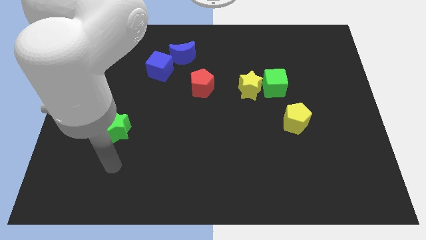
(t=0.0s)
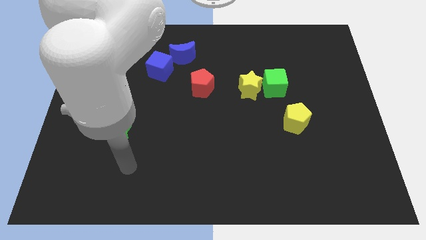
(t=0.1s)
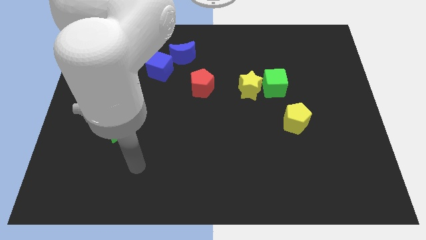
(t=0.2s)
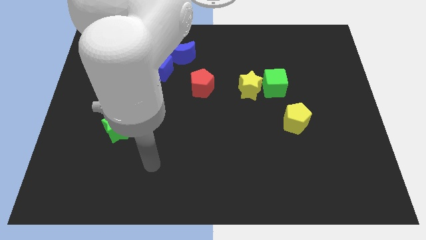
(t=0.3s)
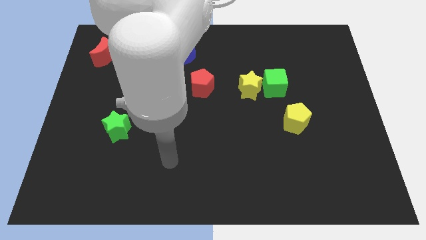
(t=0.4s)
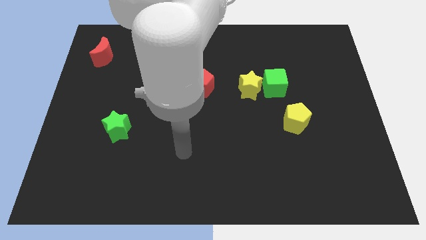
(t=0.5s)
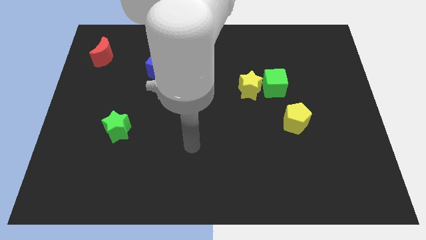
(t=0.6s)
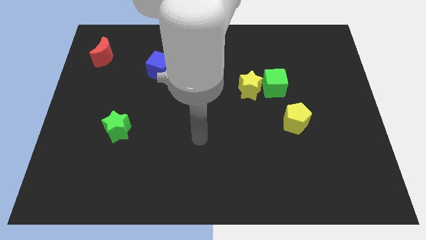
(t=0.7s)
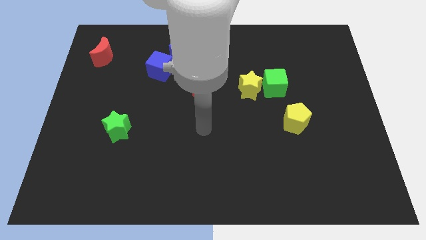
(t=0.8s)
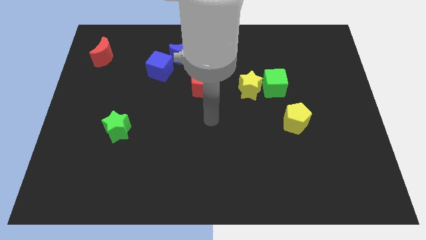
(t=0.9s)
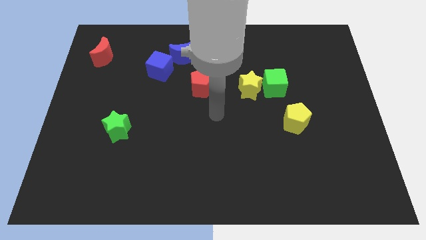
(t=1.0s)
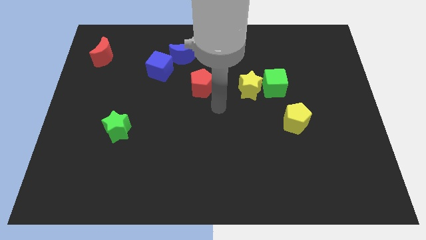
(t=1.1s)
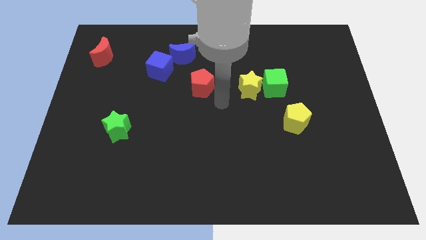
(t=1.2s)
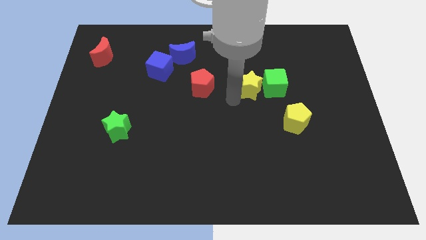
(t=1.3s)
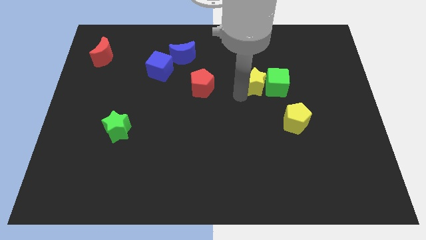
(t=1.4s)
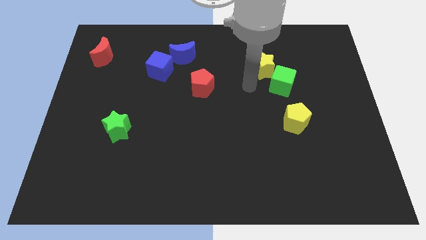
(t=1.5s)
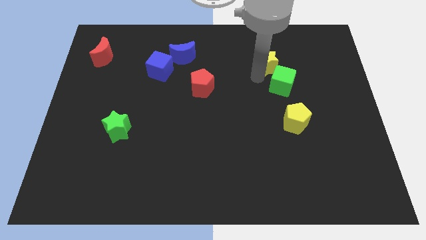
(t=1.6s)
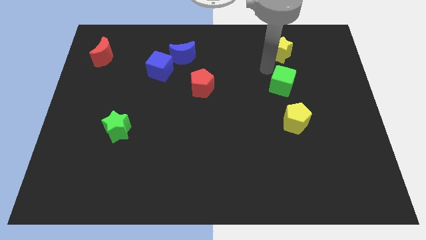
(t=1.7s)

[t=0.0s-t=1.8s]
move the green cube away from the yellow star

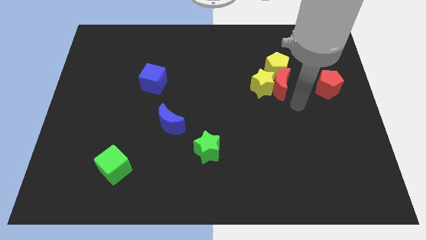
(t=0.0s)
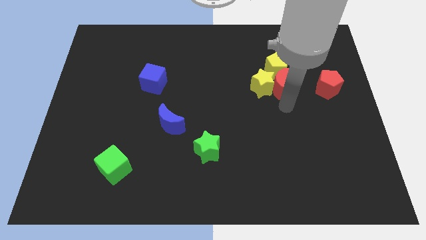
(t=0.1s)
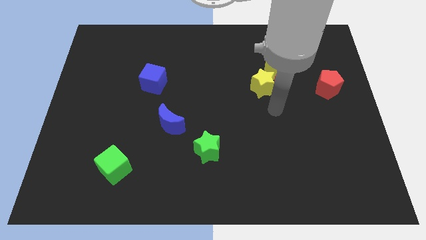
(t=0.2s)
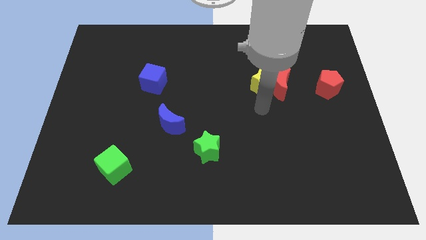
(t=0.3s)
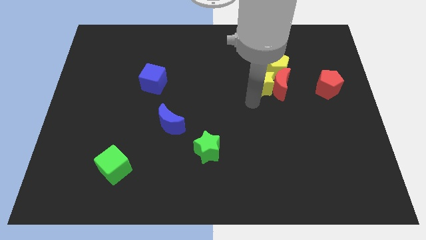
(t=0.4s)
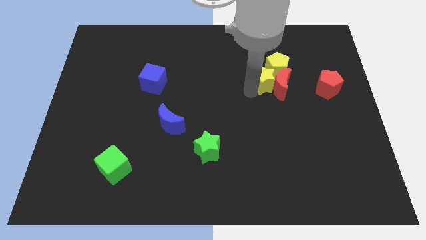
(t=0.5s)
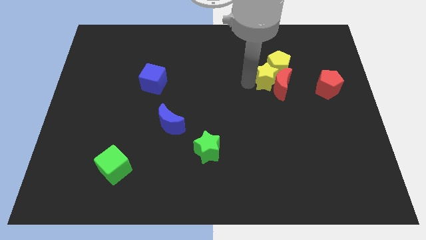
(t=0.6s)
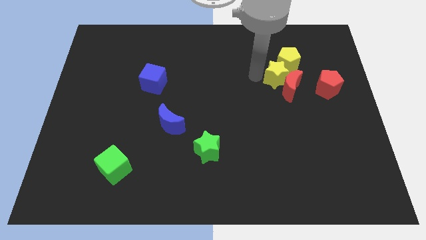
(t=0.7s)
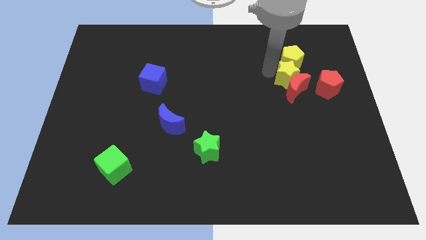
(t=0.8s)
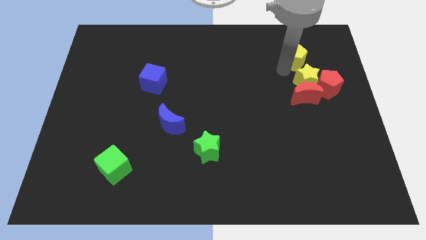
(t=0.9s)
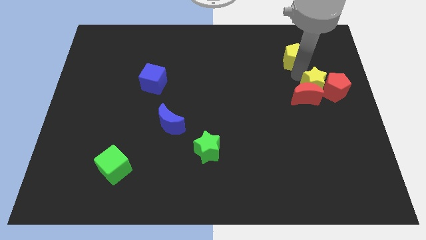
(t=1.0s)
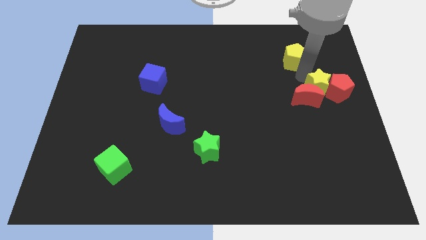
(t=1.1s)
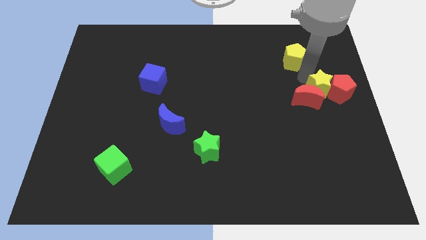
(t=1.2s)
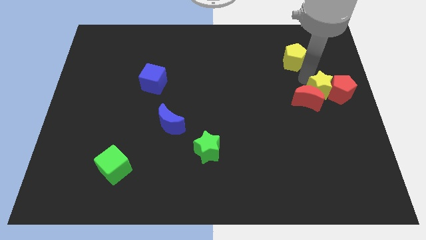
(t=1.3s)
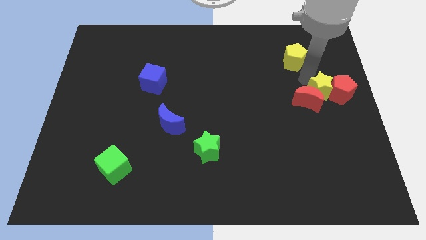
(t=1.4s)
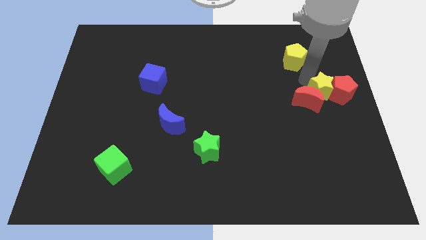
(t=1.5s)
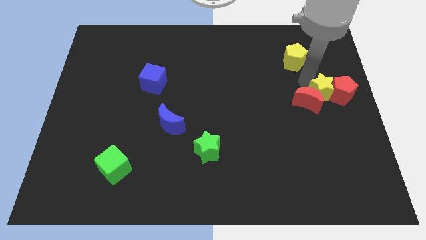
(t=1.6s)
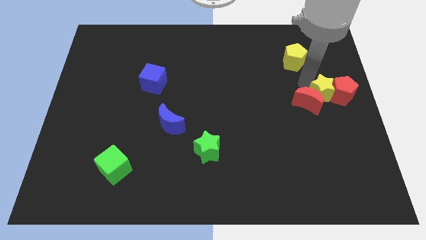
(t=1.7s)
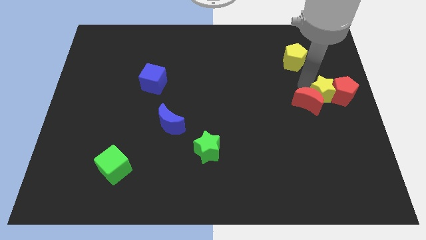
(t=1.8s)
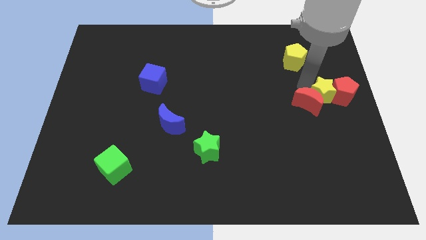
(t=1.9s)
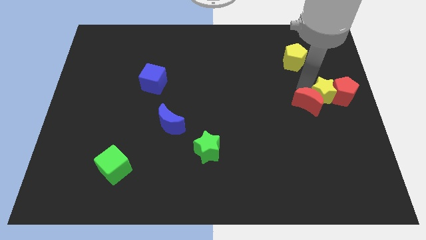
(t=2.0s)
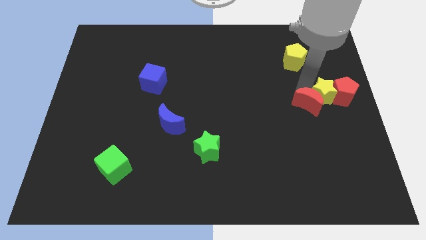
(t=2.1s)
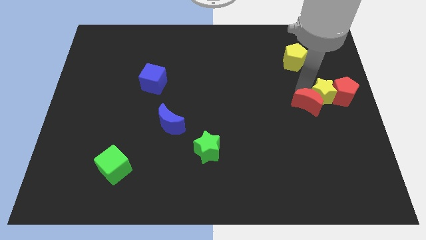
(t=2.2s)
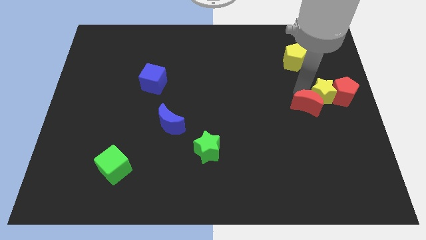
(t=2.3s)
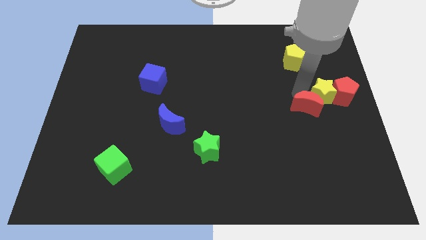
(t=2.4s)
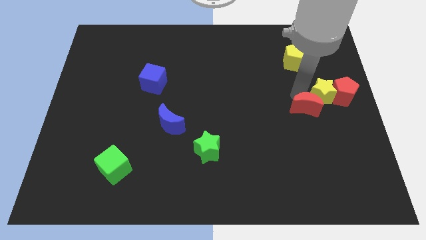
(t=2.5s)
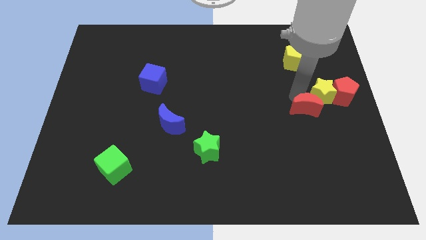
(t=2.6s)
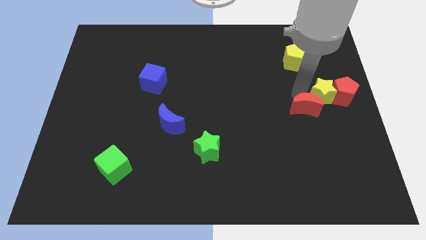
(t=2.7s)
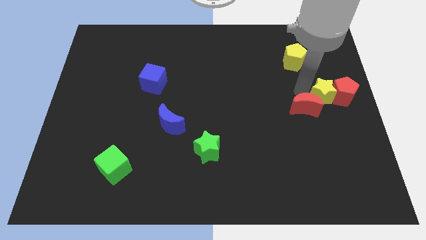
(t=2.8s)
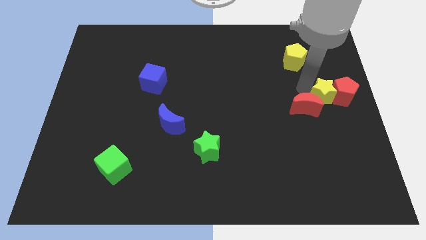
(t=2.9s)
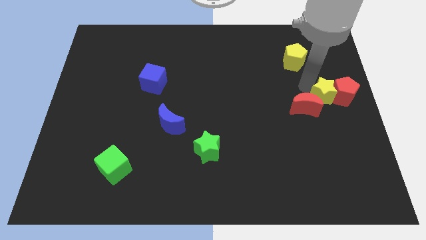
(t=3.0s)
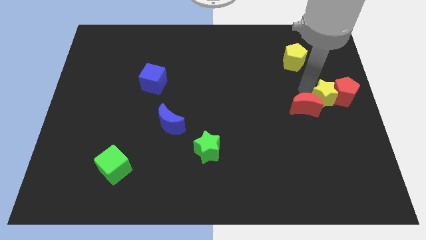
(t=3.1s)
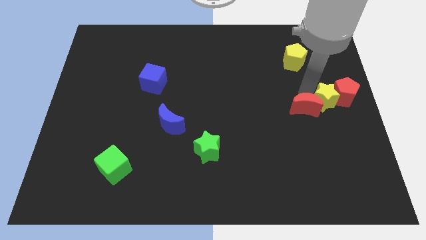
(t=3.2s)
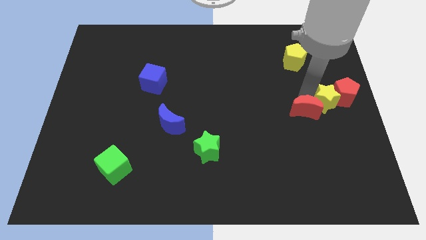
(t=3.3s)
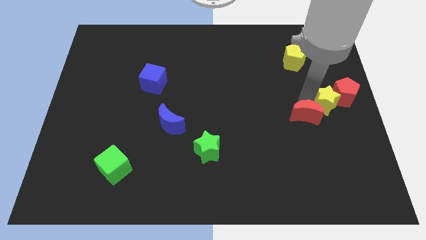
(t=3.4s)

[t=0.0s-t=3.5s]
pull the red moon apart from the yellow star and yellow pentagon

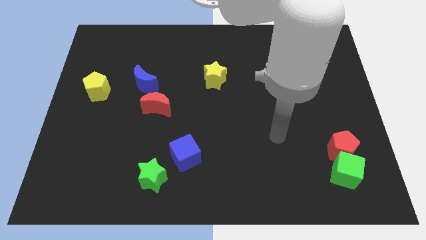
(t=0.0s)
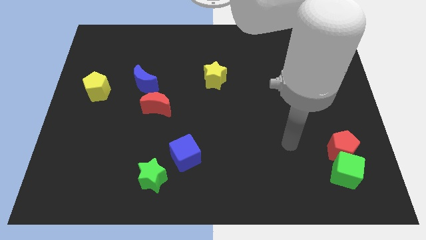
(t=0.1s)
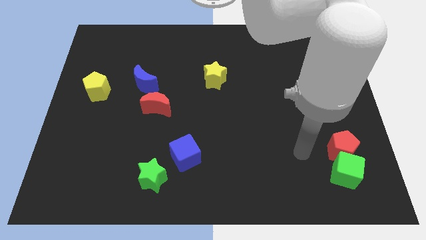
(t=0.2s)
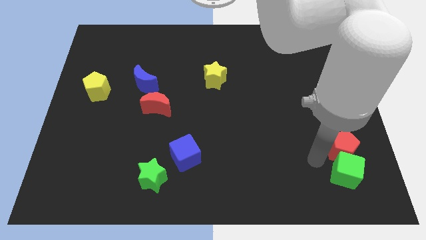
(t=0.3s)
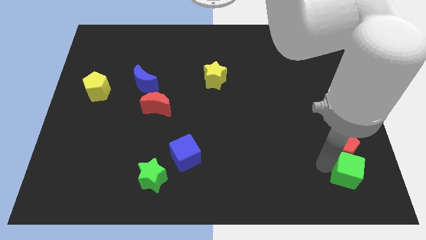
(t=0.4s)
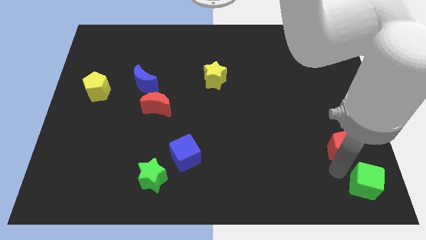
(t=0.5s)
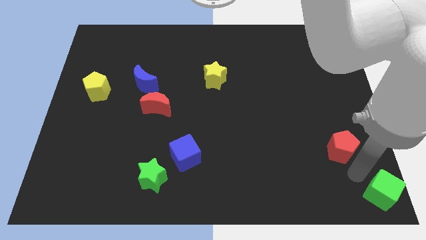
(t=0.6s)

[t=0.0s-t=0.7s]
pull the red pentagon apart from the green cube

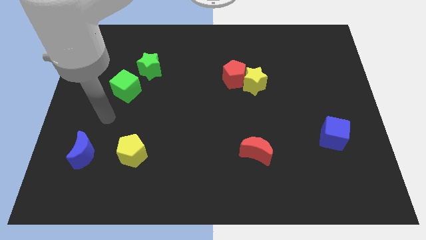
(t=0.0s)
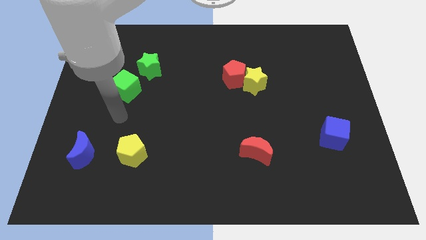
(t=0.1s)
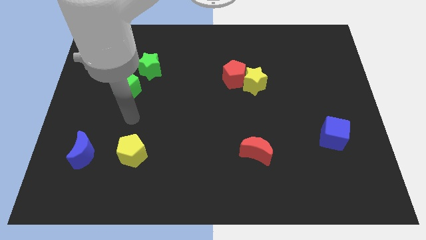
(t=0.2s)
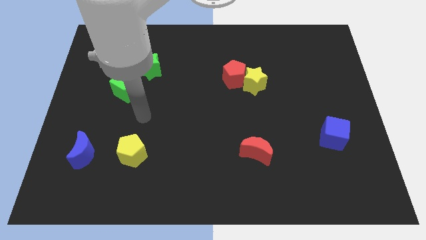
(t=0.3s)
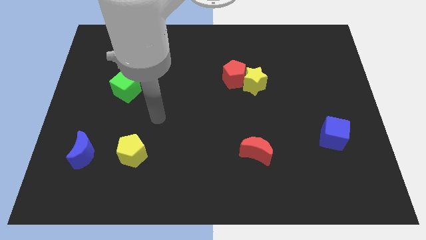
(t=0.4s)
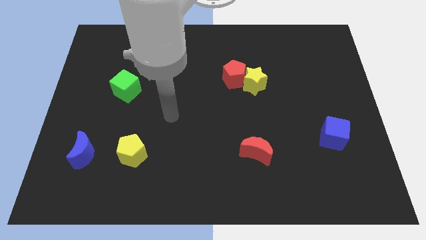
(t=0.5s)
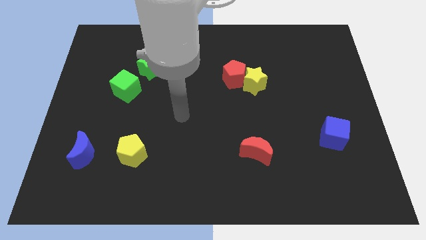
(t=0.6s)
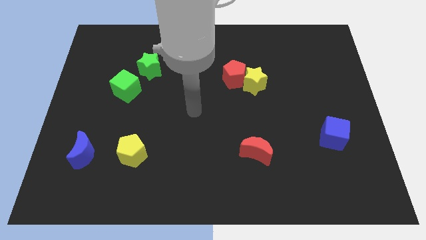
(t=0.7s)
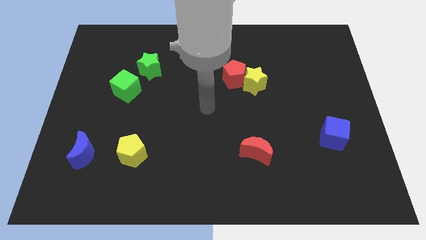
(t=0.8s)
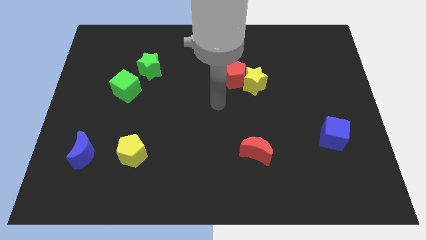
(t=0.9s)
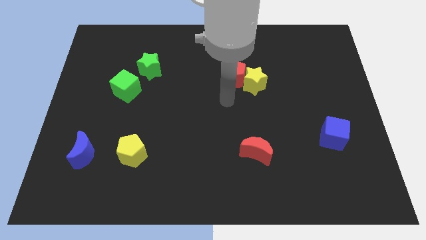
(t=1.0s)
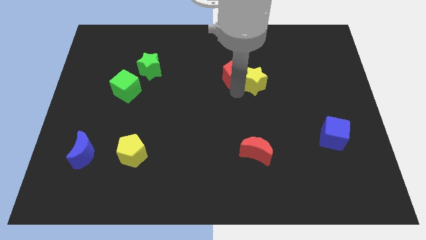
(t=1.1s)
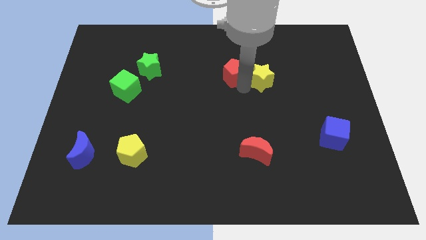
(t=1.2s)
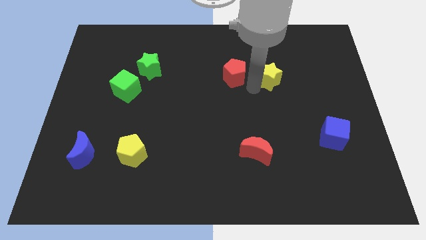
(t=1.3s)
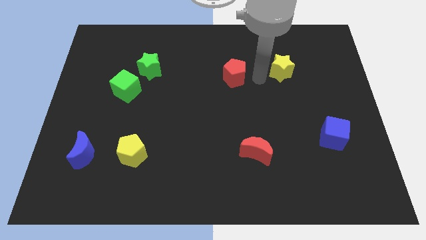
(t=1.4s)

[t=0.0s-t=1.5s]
move the red pentagon away from the yellow star

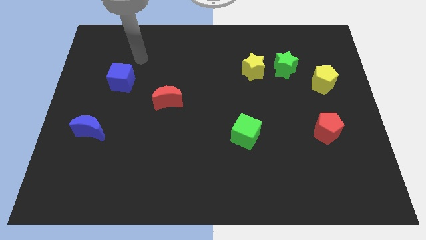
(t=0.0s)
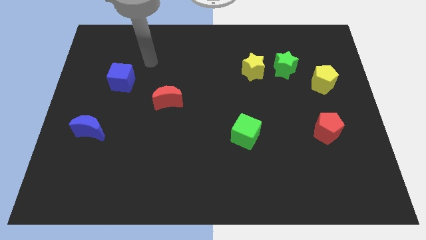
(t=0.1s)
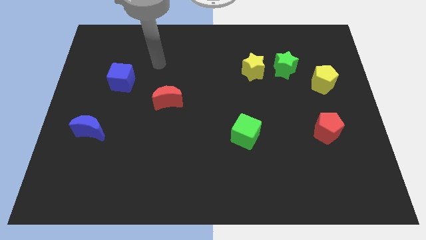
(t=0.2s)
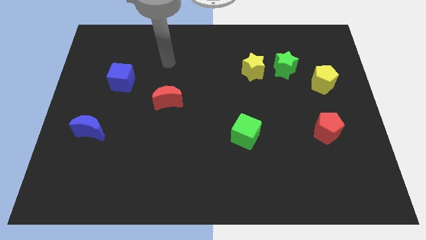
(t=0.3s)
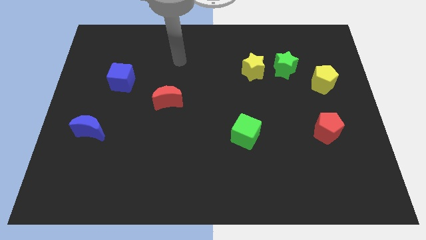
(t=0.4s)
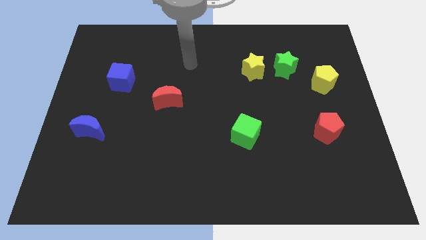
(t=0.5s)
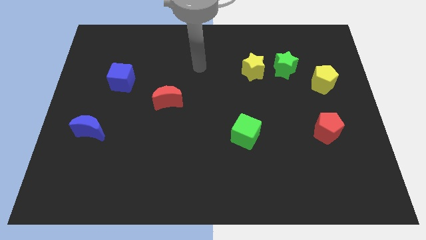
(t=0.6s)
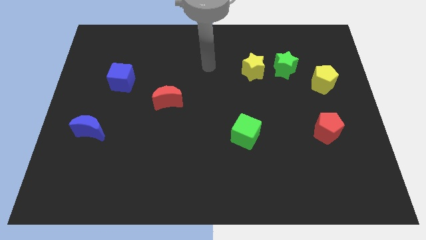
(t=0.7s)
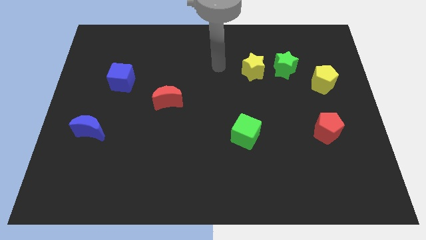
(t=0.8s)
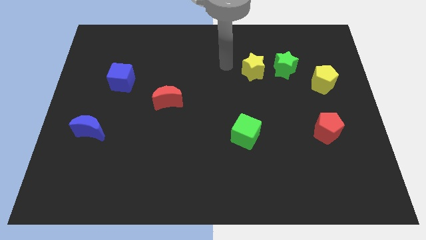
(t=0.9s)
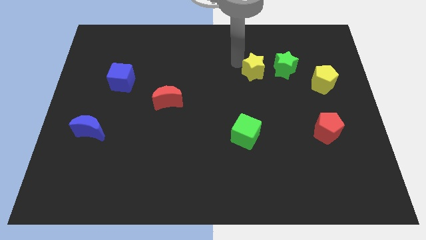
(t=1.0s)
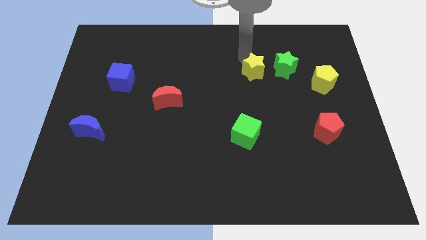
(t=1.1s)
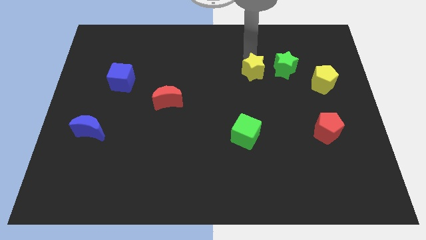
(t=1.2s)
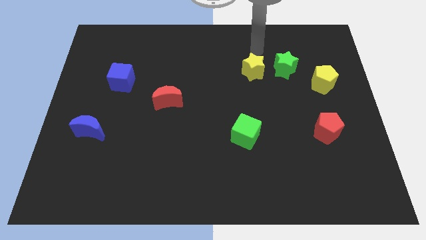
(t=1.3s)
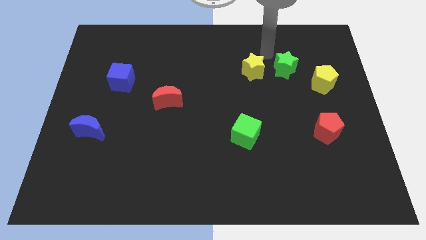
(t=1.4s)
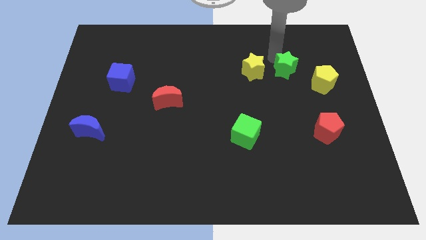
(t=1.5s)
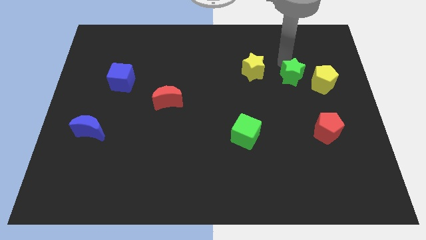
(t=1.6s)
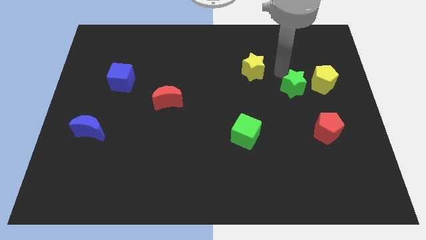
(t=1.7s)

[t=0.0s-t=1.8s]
pull the yellow star apart from the green star
